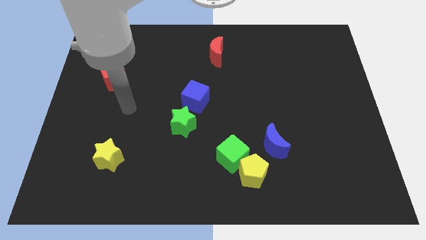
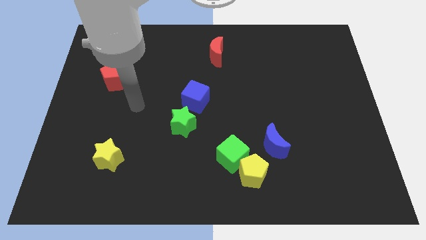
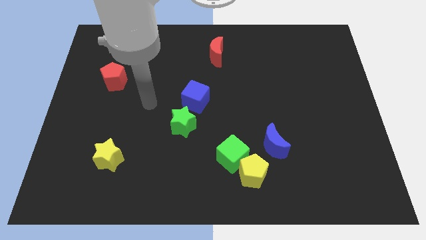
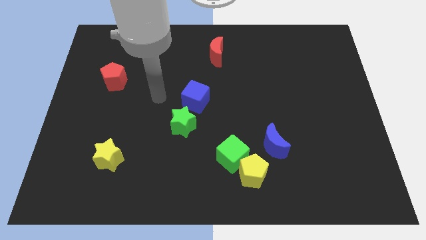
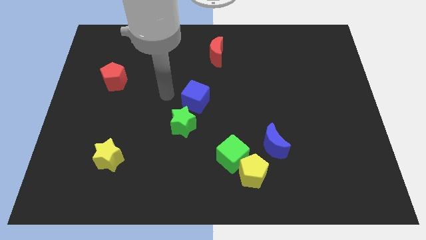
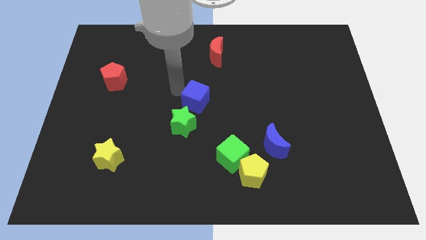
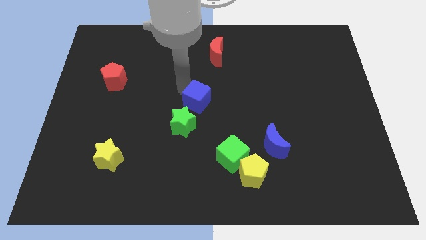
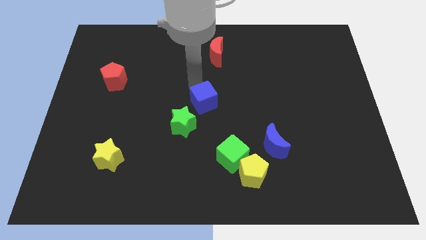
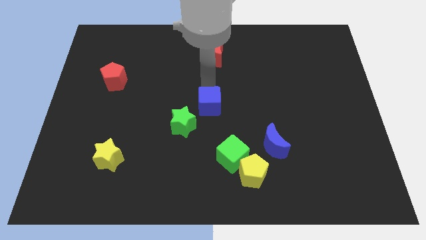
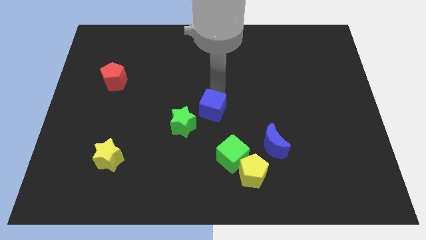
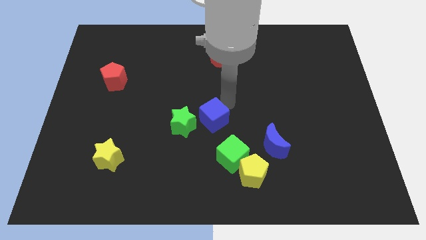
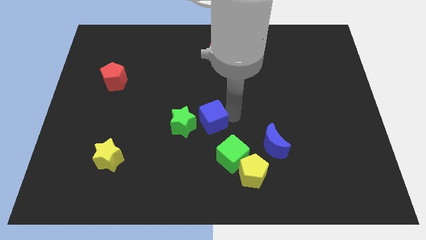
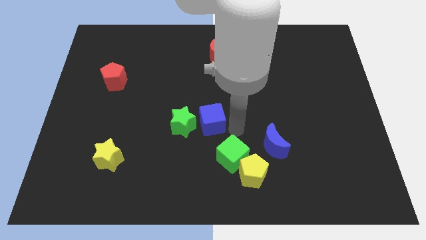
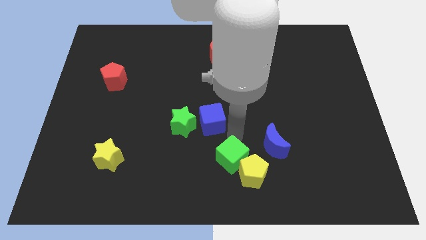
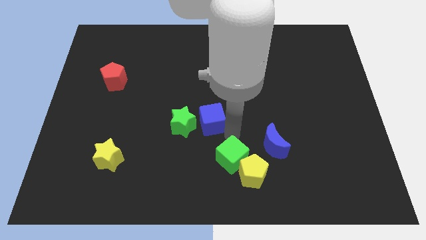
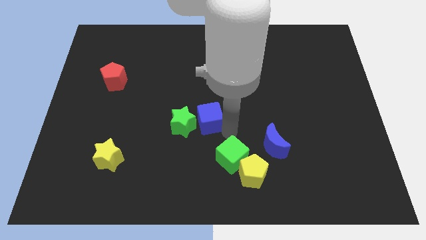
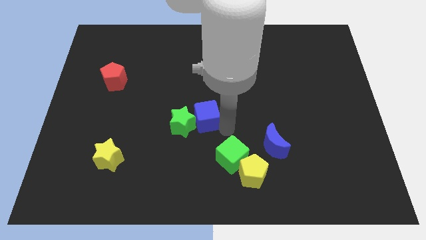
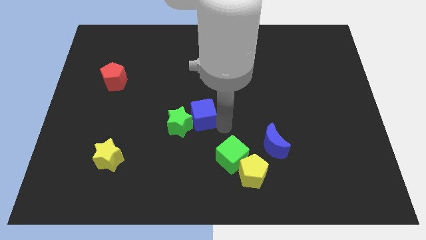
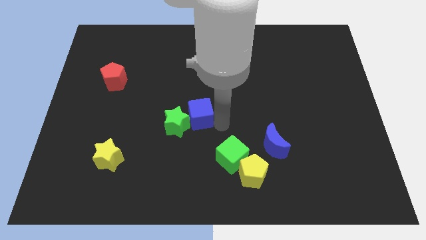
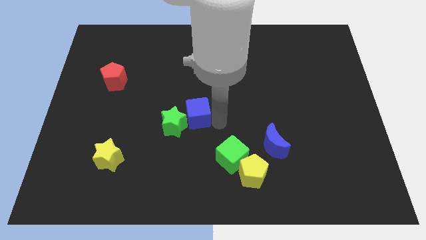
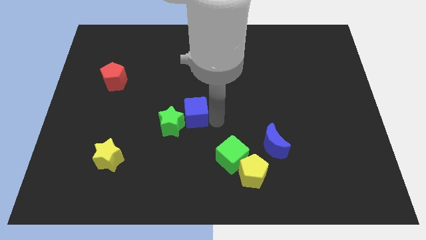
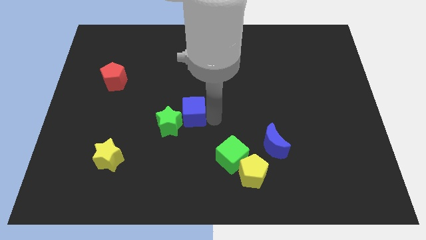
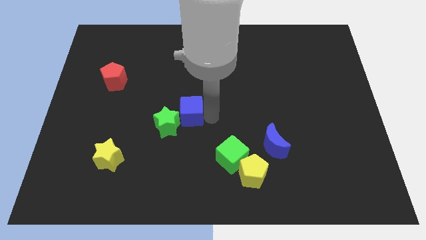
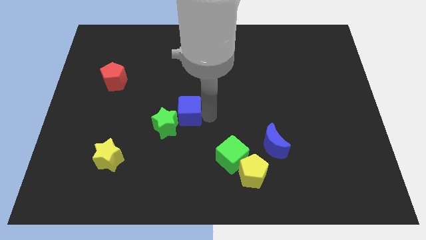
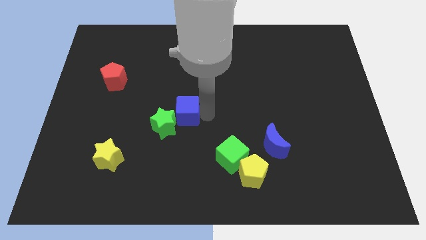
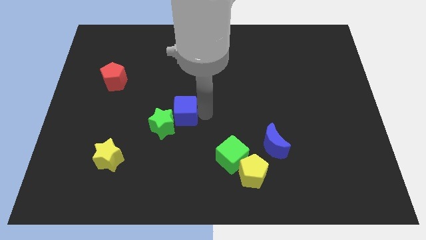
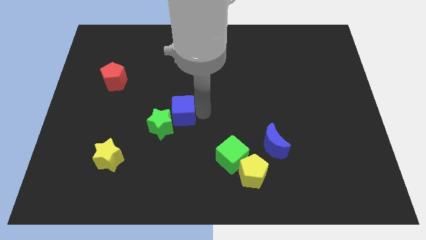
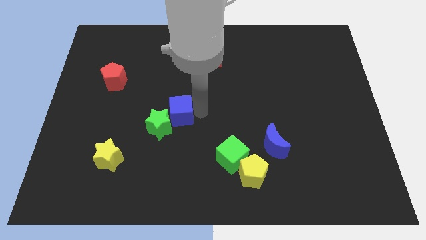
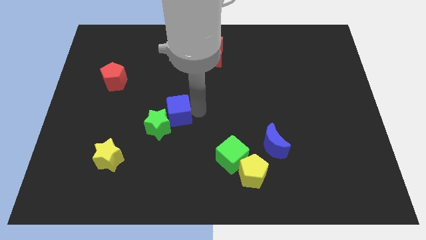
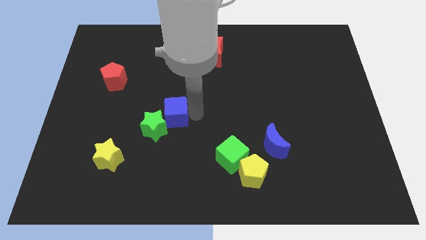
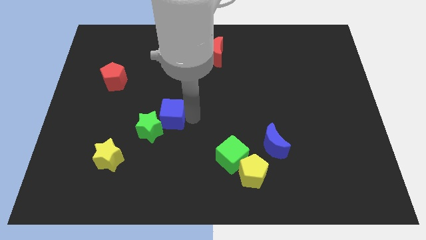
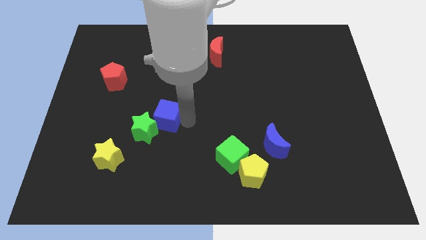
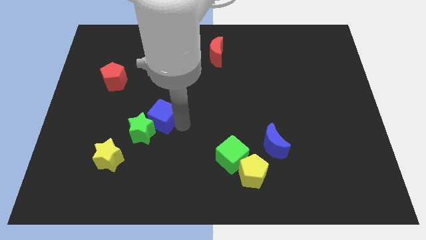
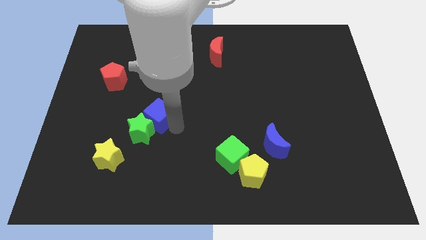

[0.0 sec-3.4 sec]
slightly slide the blue cube to the left

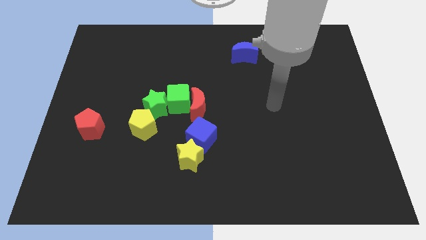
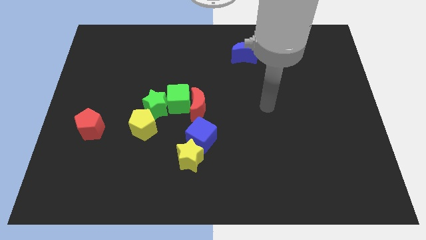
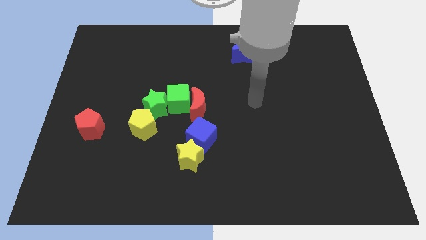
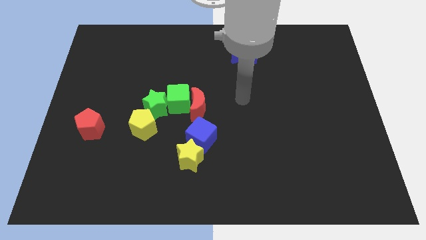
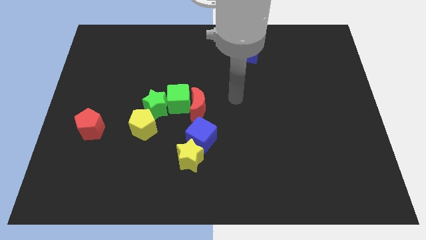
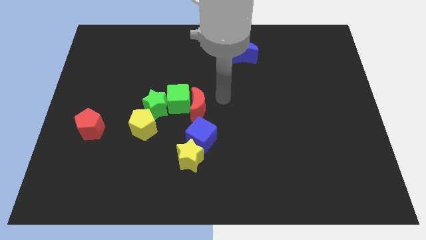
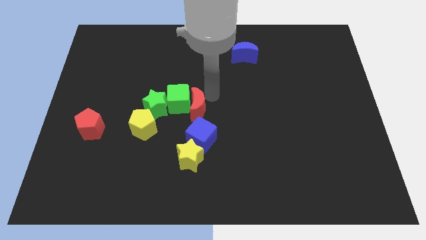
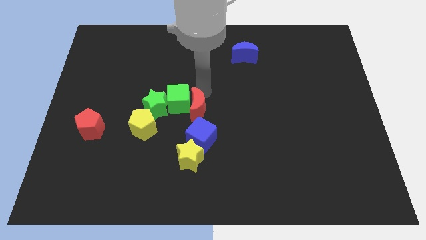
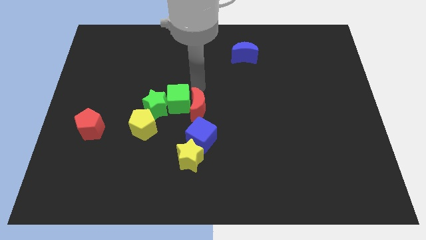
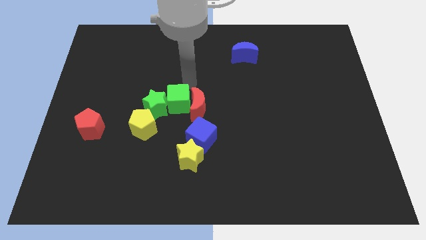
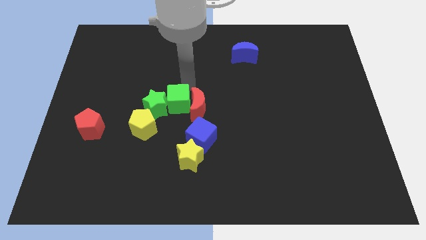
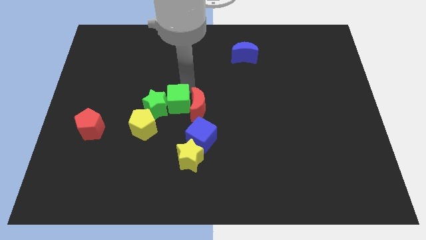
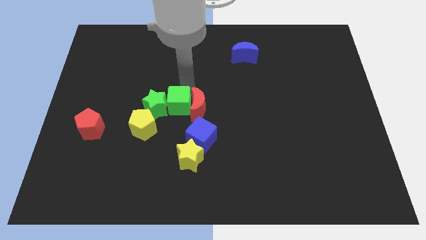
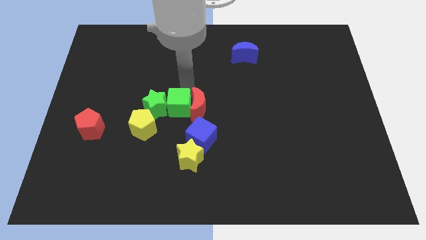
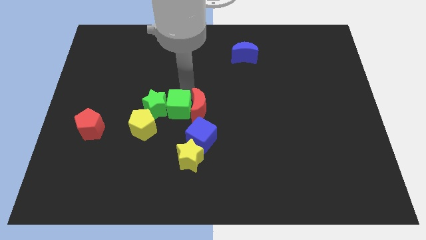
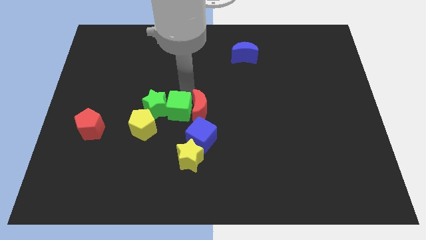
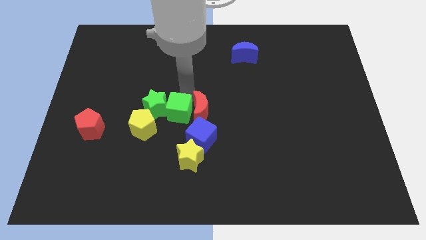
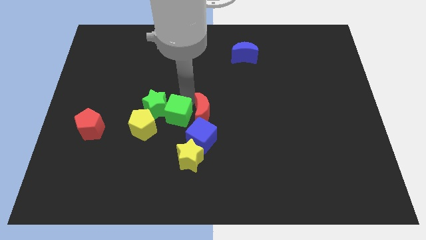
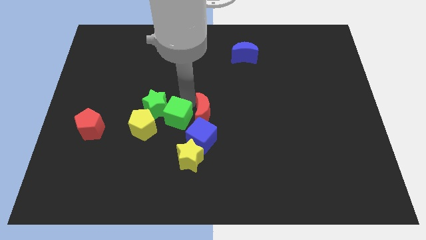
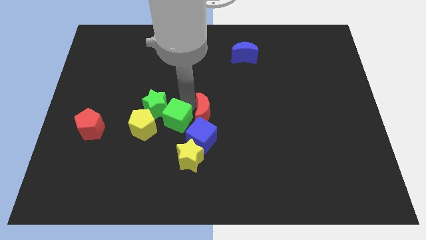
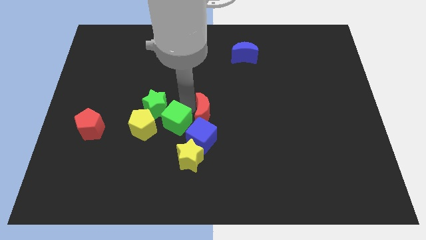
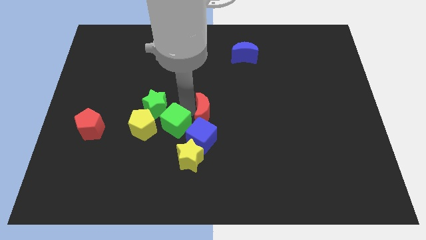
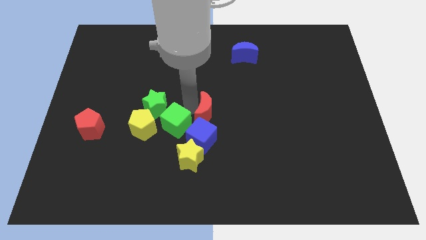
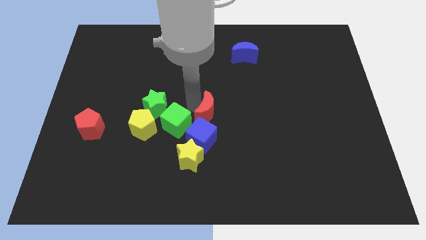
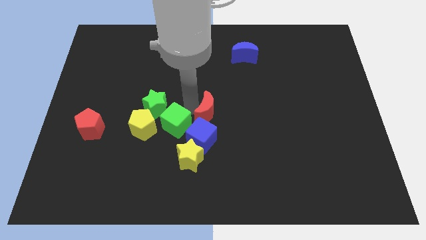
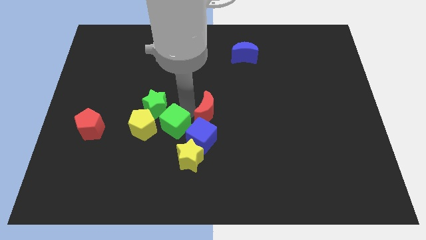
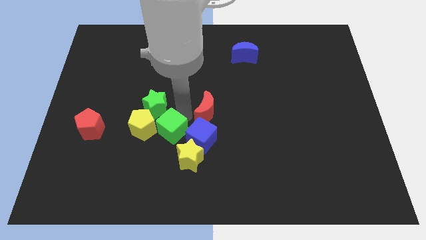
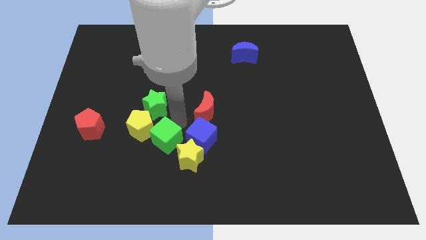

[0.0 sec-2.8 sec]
slide the green cube a little bit downwards and to the left diagonally

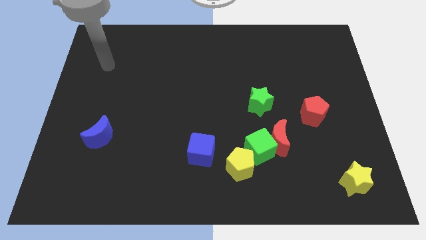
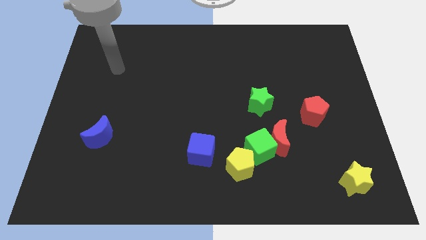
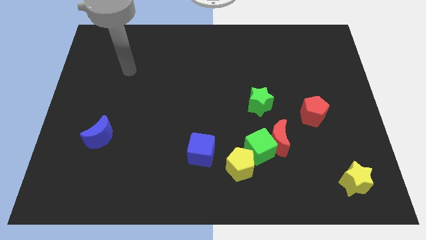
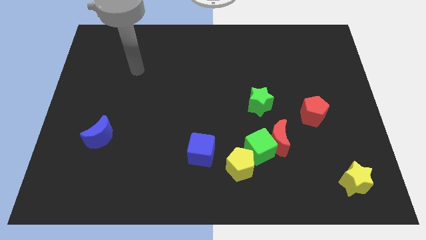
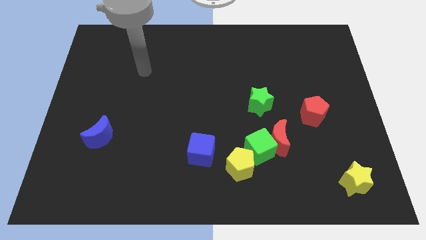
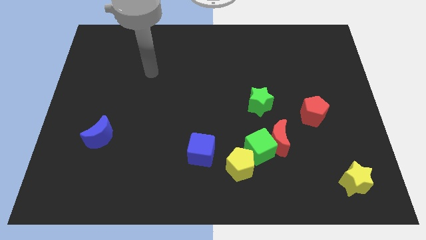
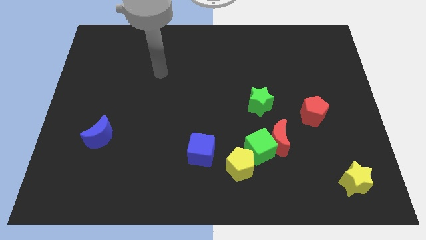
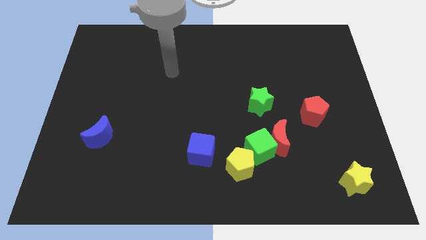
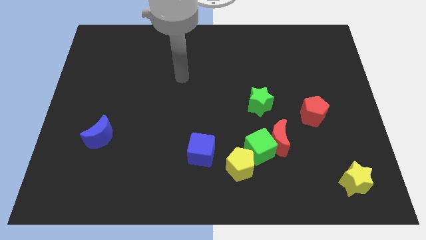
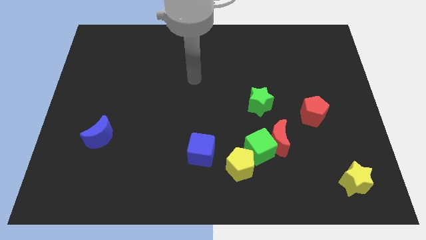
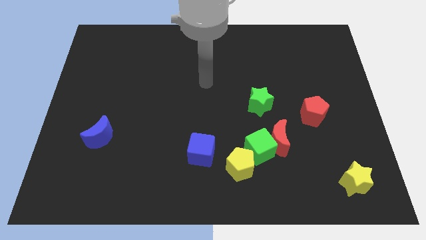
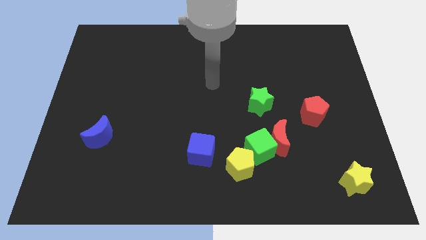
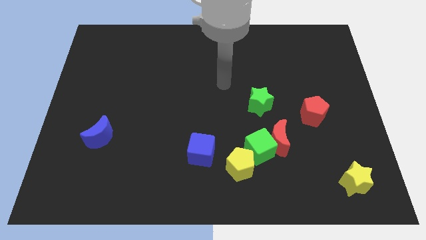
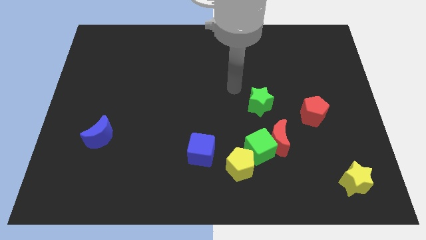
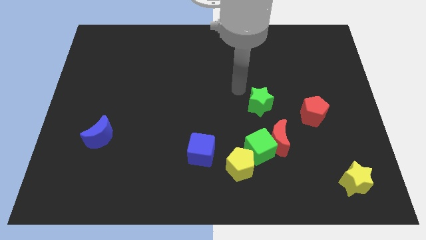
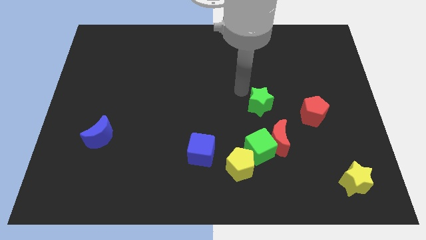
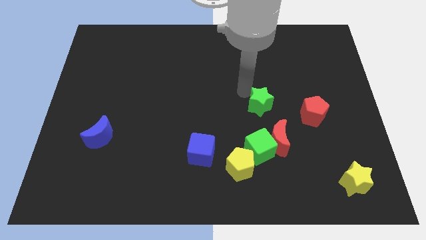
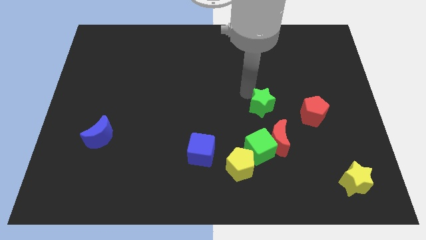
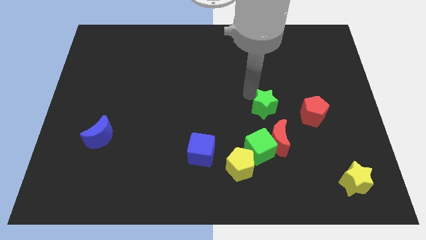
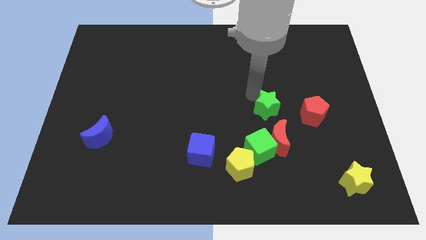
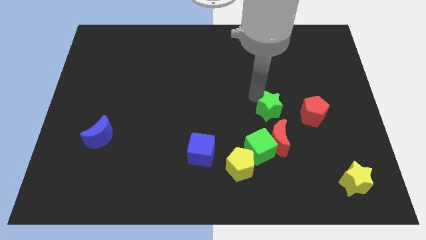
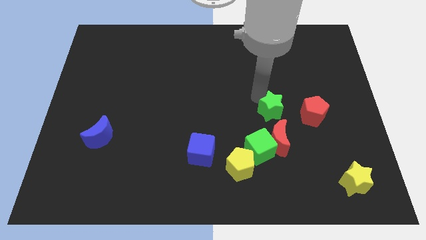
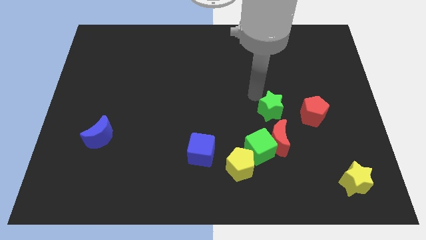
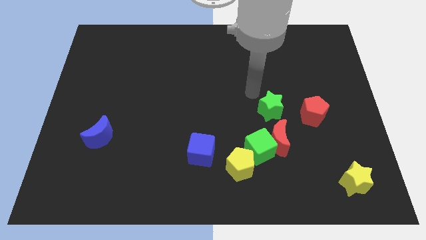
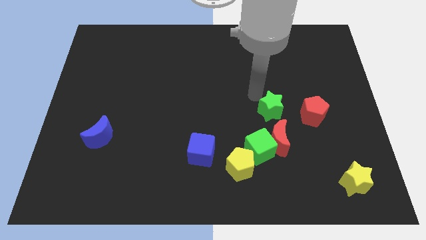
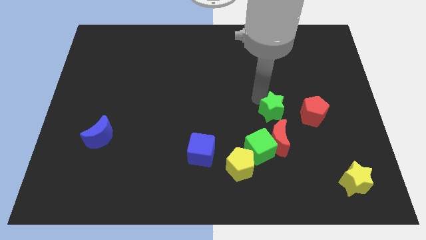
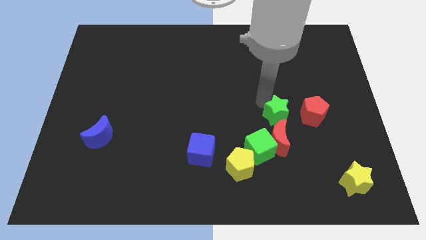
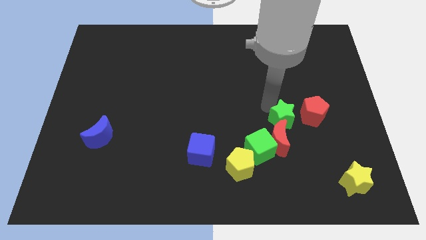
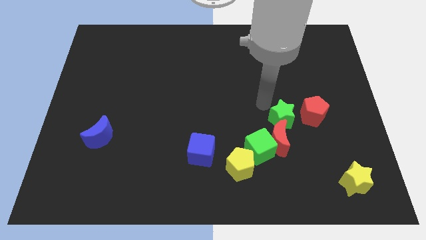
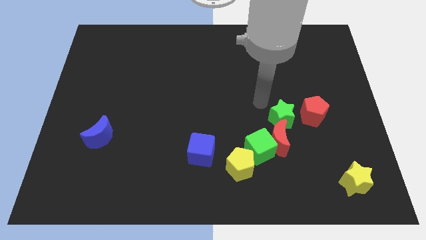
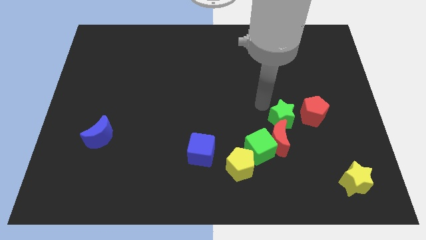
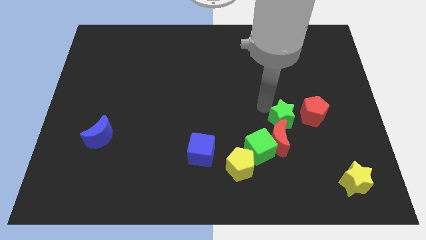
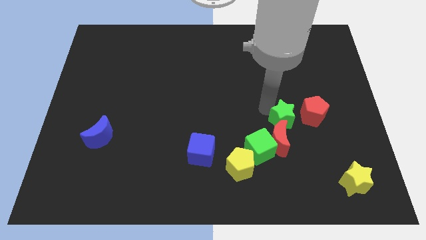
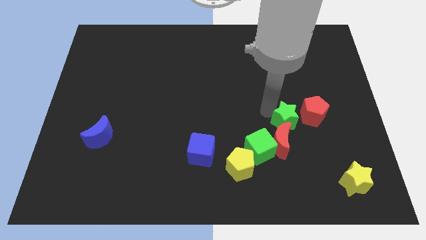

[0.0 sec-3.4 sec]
slightly push the green star down and then right
